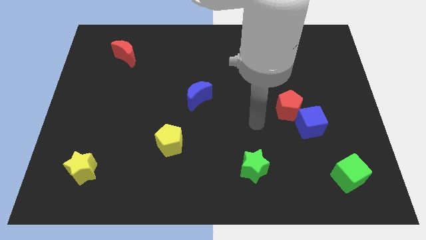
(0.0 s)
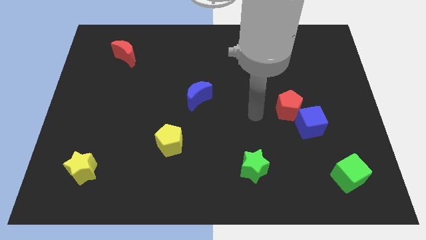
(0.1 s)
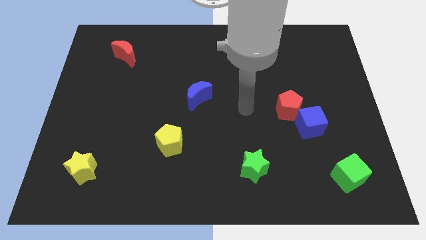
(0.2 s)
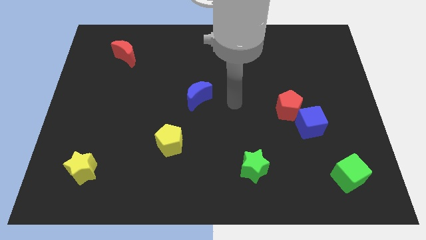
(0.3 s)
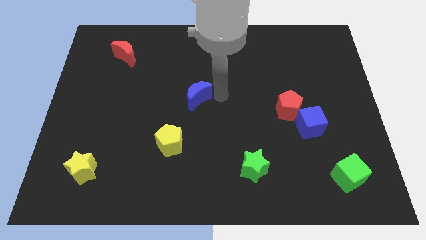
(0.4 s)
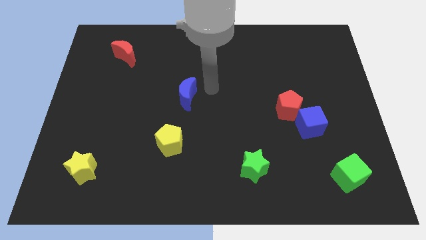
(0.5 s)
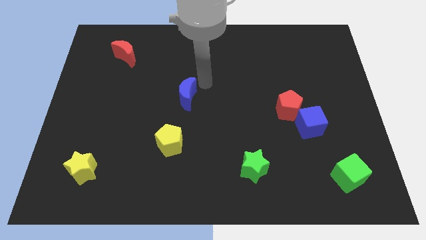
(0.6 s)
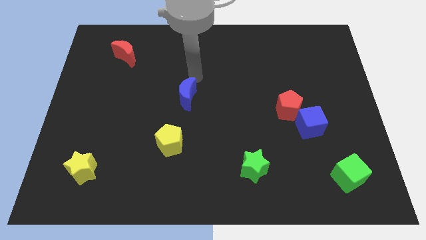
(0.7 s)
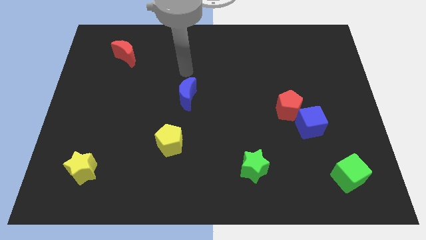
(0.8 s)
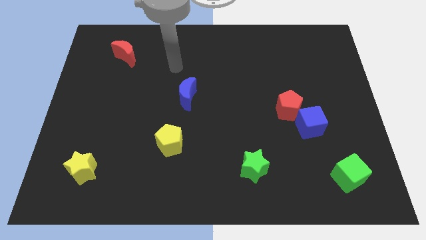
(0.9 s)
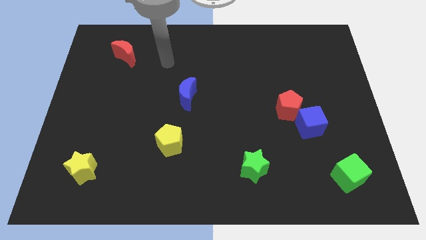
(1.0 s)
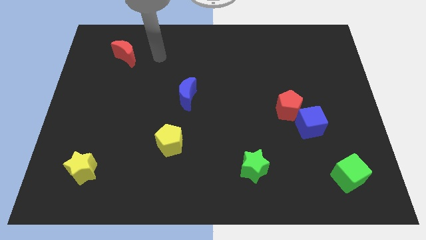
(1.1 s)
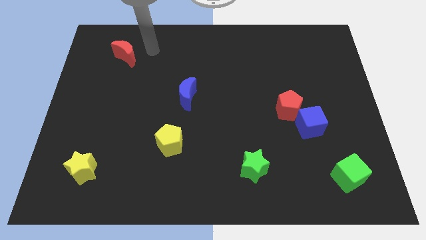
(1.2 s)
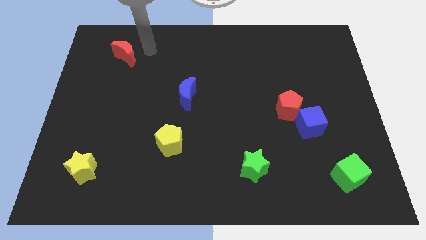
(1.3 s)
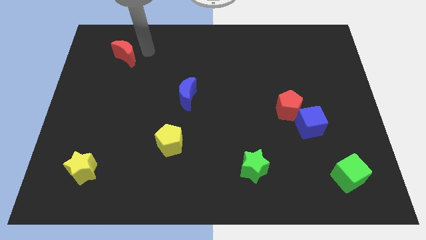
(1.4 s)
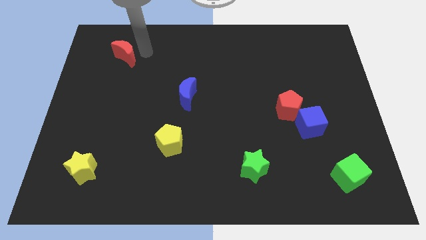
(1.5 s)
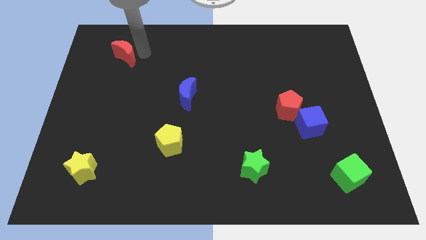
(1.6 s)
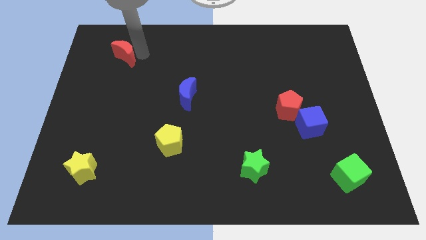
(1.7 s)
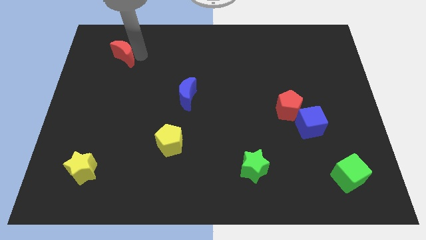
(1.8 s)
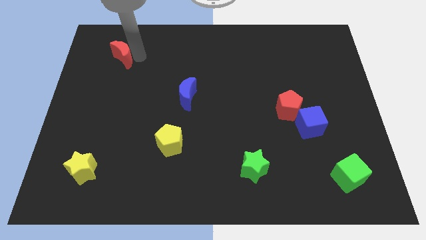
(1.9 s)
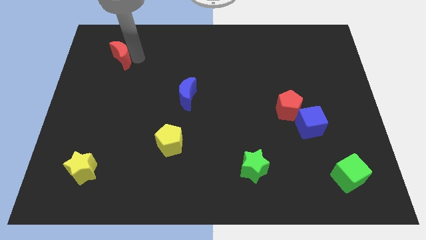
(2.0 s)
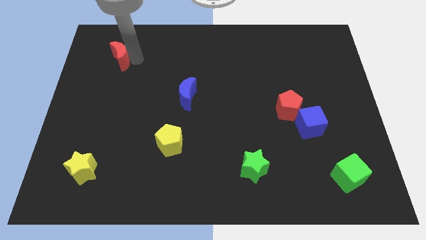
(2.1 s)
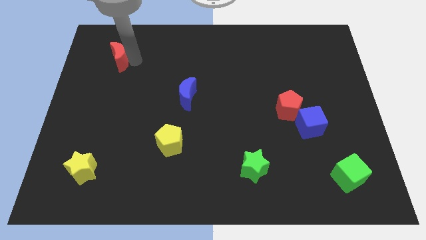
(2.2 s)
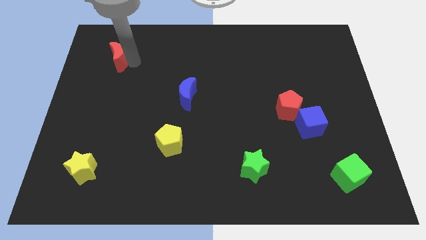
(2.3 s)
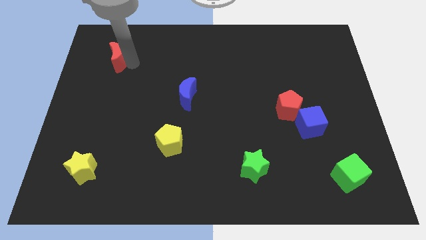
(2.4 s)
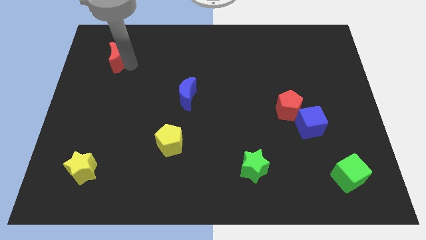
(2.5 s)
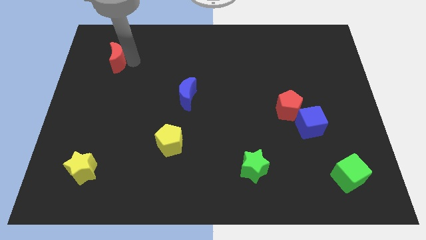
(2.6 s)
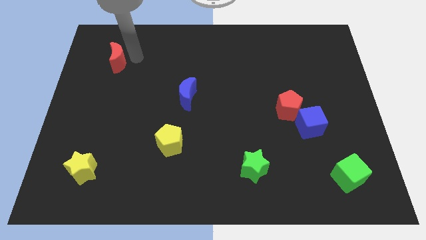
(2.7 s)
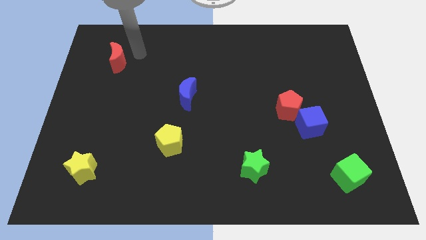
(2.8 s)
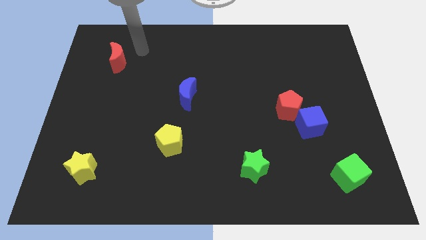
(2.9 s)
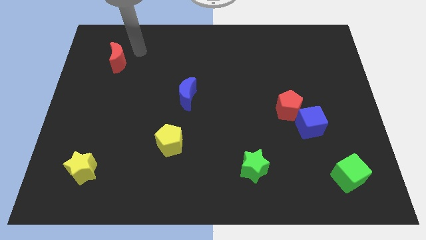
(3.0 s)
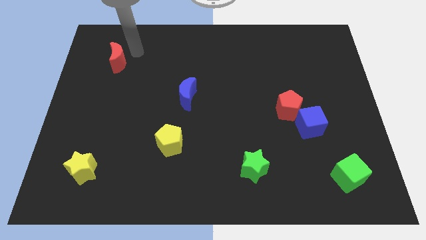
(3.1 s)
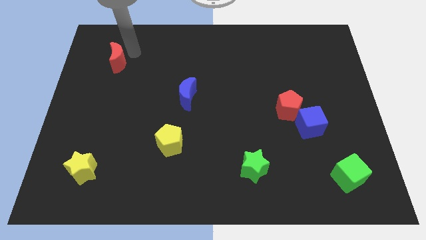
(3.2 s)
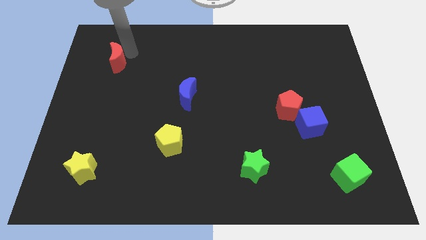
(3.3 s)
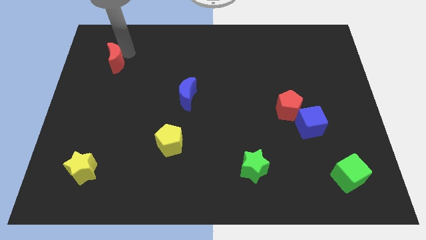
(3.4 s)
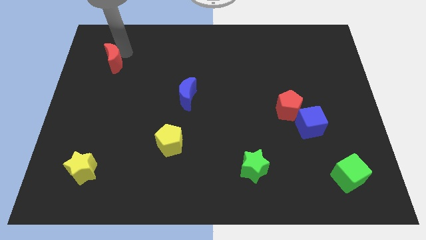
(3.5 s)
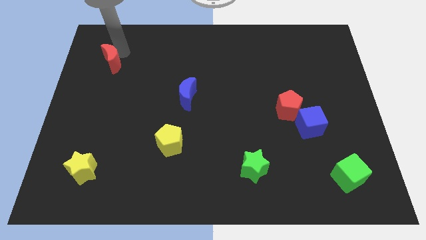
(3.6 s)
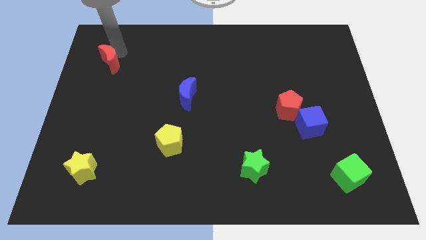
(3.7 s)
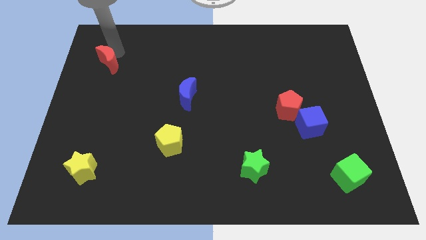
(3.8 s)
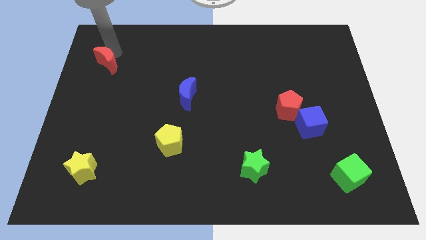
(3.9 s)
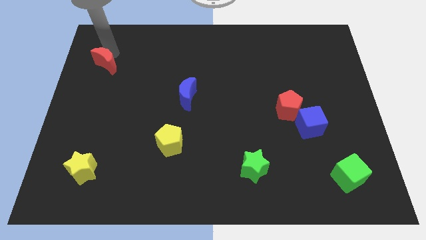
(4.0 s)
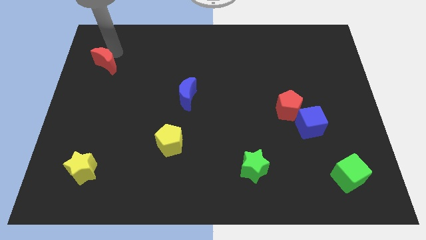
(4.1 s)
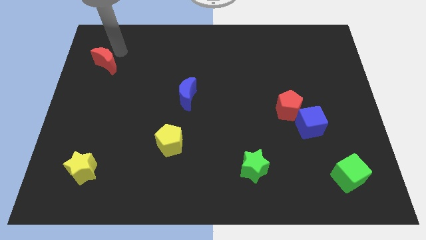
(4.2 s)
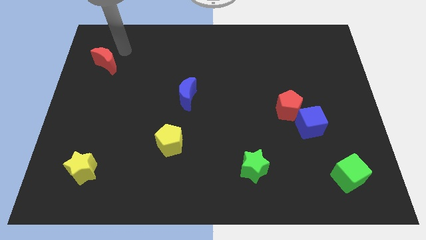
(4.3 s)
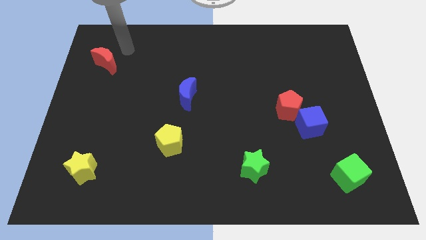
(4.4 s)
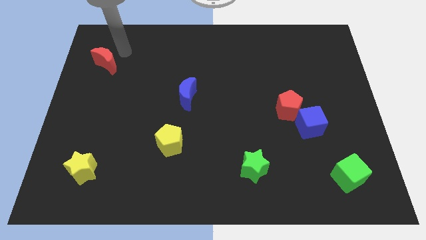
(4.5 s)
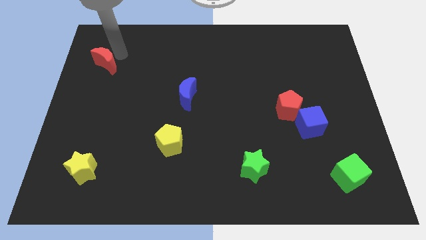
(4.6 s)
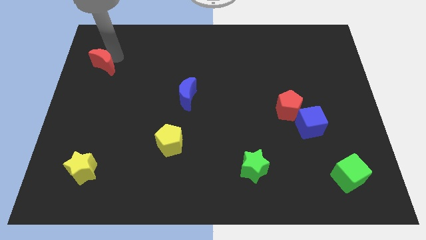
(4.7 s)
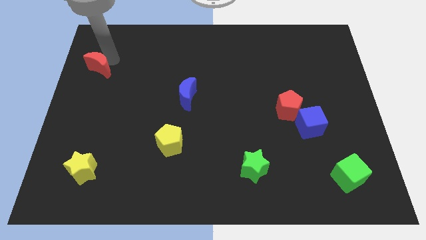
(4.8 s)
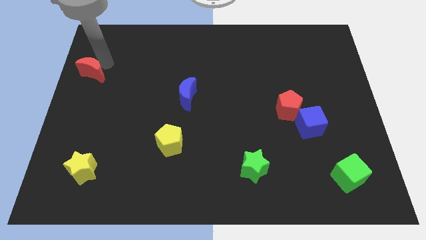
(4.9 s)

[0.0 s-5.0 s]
slide the red moon to the center left

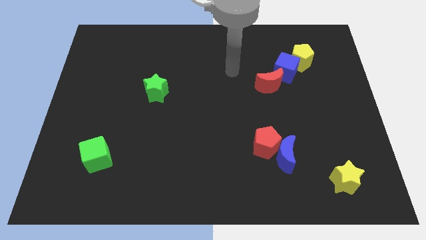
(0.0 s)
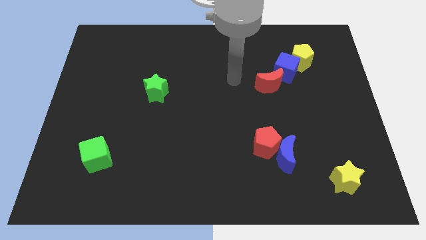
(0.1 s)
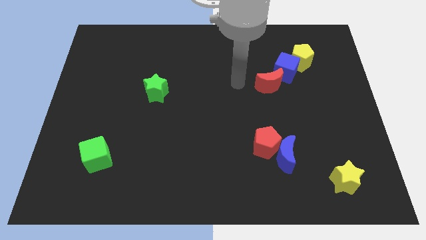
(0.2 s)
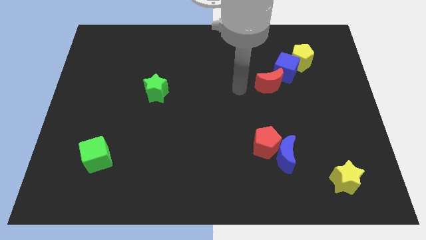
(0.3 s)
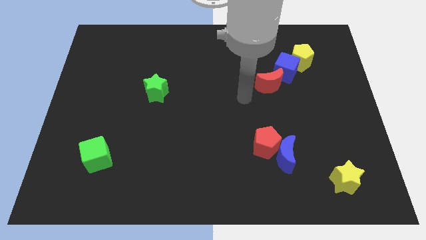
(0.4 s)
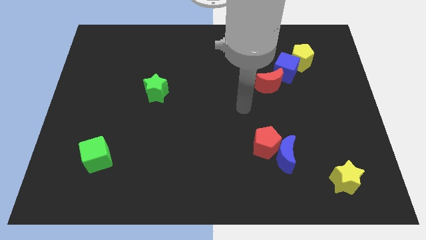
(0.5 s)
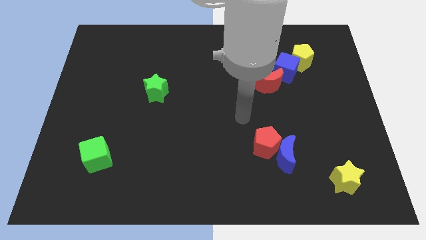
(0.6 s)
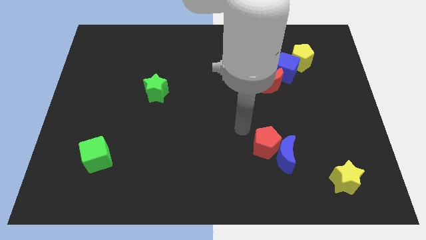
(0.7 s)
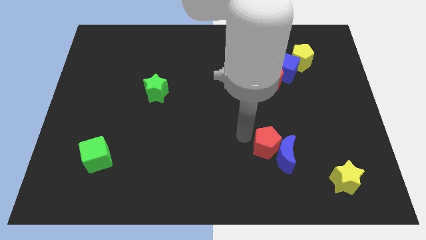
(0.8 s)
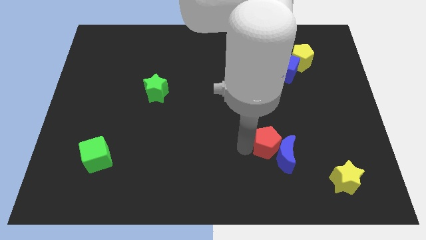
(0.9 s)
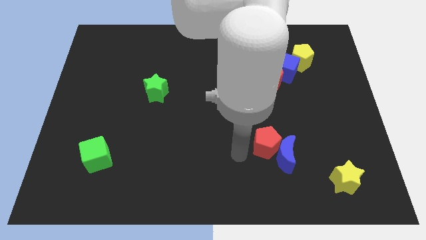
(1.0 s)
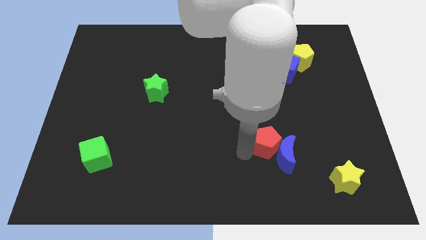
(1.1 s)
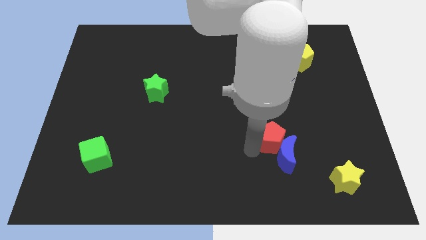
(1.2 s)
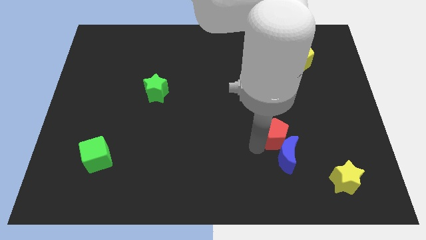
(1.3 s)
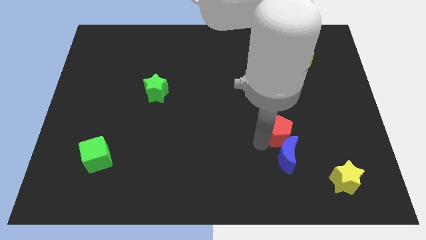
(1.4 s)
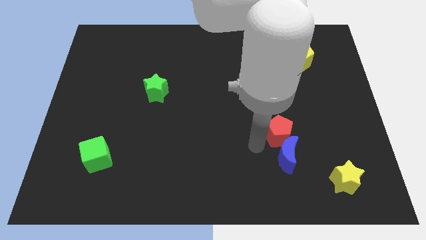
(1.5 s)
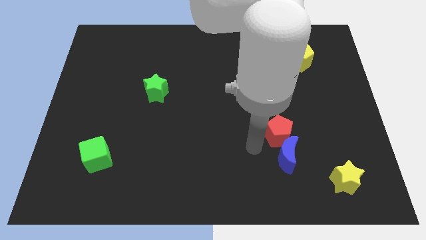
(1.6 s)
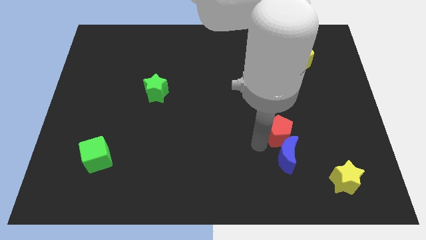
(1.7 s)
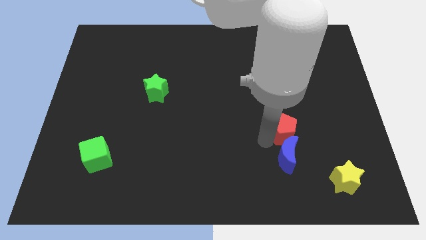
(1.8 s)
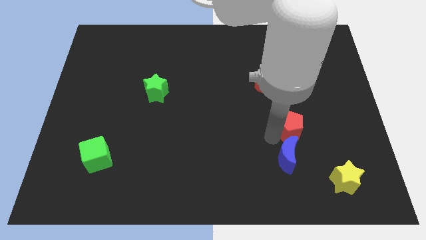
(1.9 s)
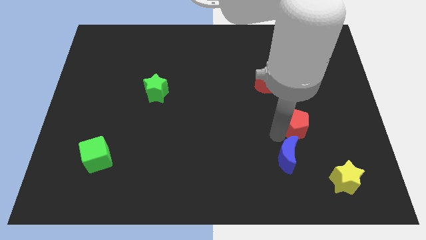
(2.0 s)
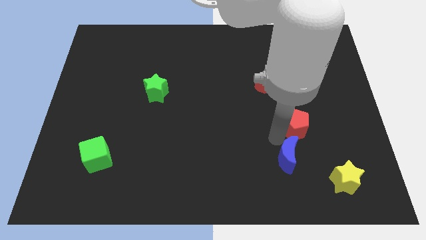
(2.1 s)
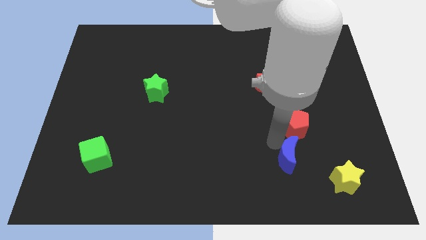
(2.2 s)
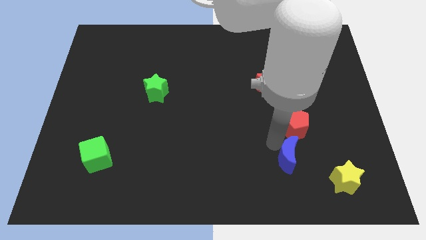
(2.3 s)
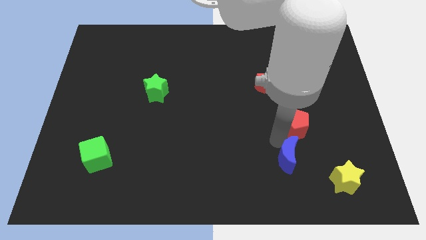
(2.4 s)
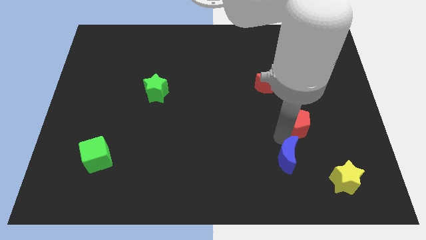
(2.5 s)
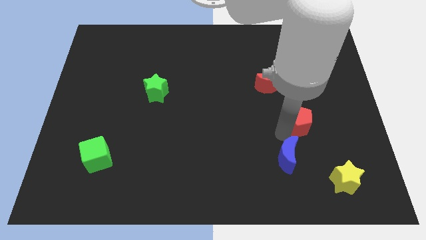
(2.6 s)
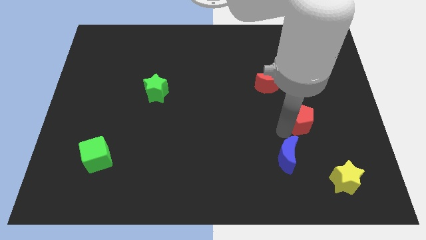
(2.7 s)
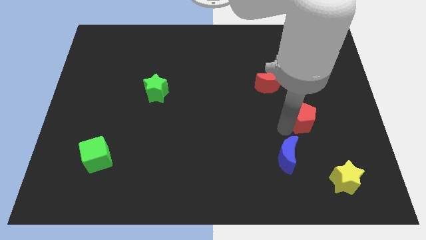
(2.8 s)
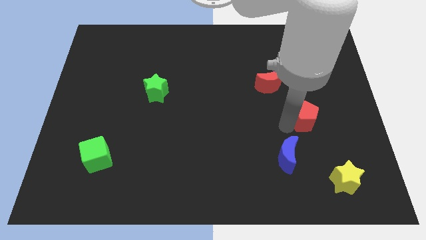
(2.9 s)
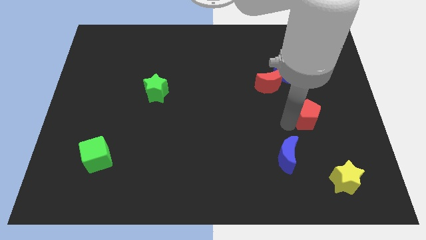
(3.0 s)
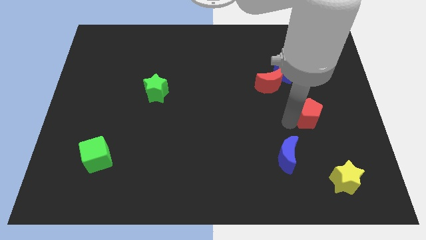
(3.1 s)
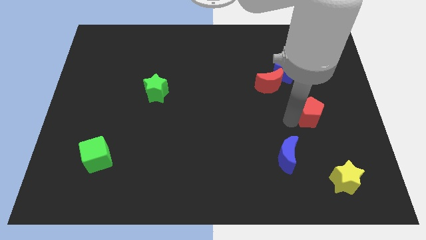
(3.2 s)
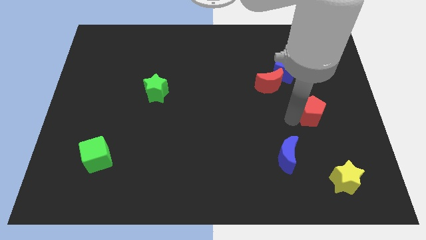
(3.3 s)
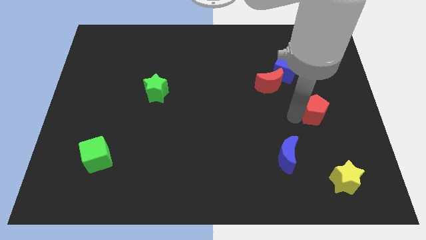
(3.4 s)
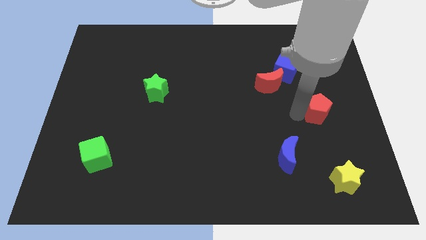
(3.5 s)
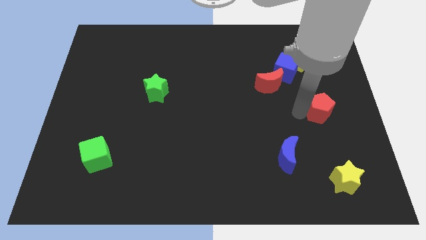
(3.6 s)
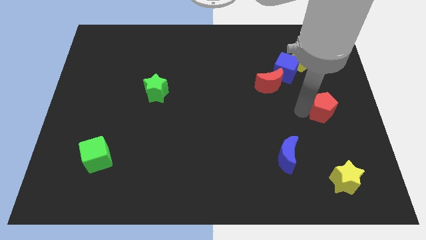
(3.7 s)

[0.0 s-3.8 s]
push the red pentagon to the right side
